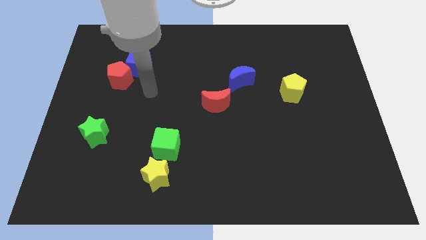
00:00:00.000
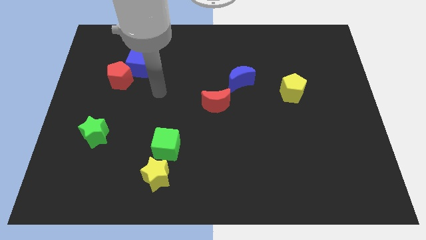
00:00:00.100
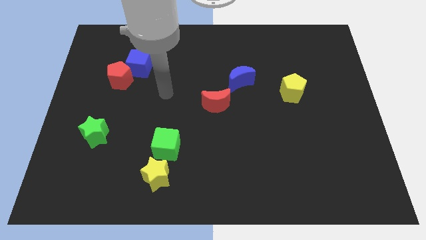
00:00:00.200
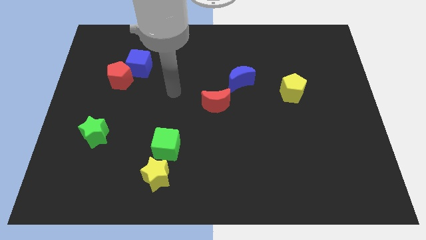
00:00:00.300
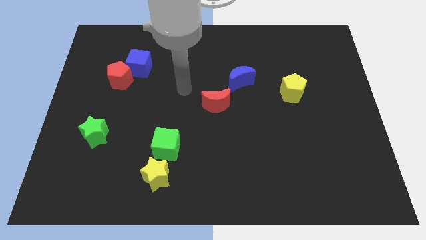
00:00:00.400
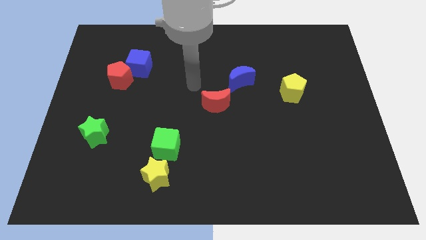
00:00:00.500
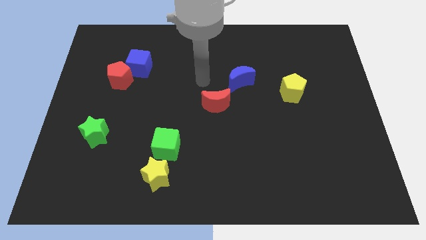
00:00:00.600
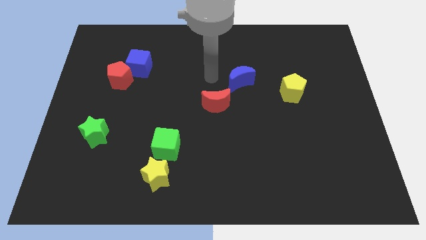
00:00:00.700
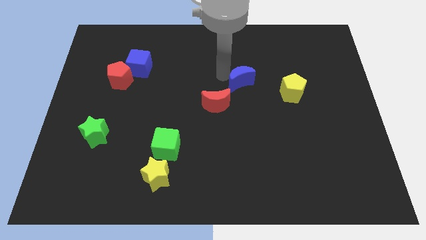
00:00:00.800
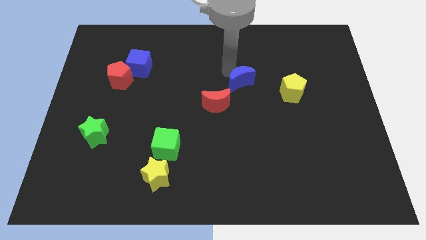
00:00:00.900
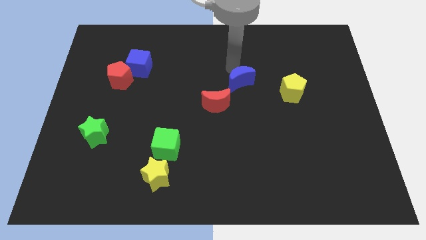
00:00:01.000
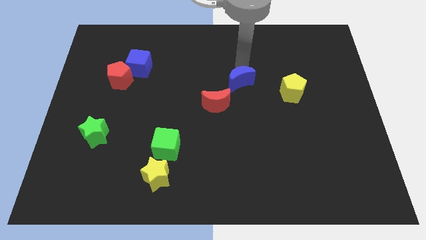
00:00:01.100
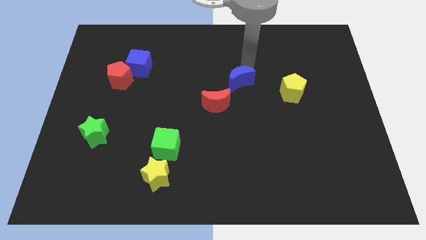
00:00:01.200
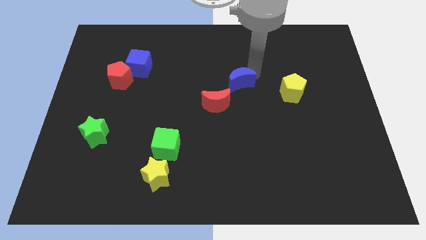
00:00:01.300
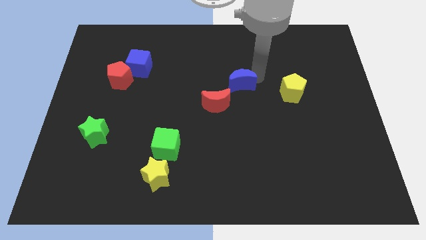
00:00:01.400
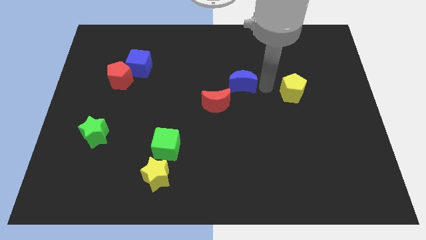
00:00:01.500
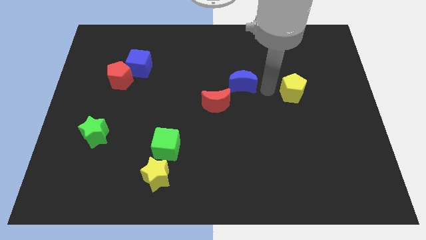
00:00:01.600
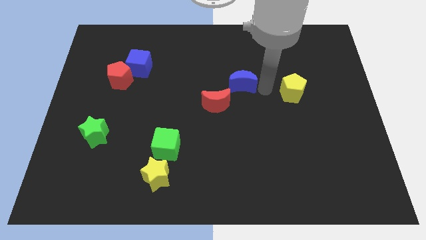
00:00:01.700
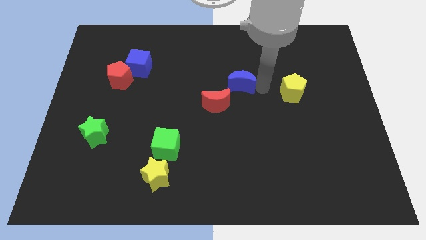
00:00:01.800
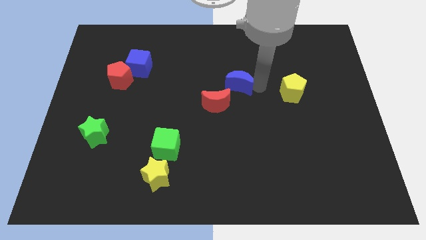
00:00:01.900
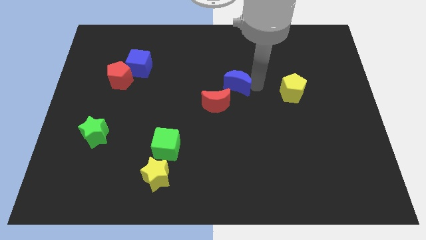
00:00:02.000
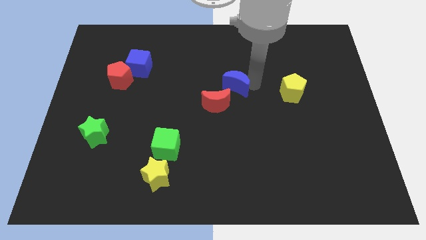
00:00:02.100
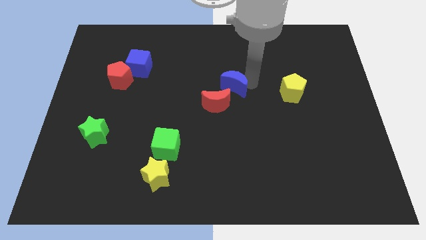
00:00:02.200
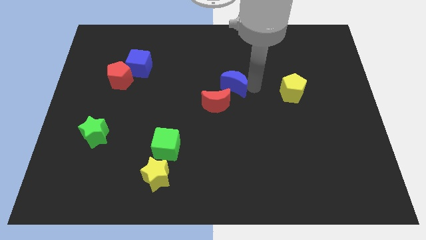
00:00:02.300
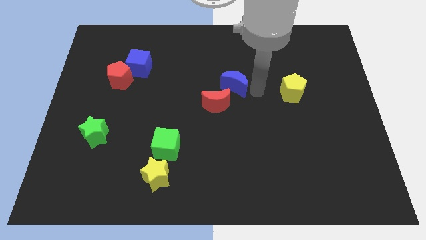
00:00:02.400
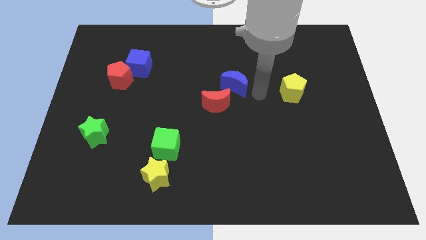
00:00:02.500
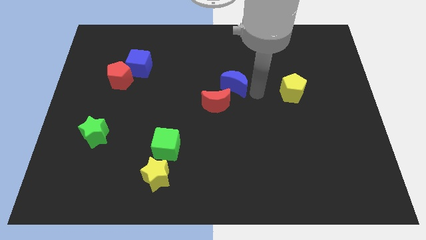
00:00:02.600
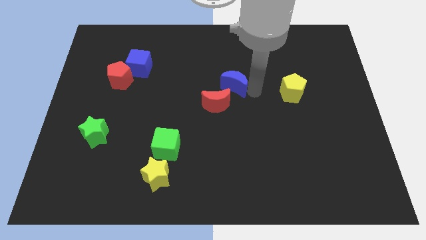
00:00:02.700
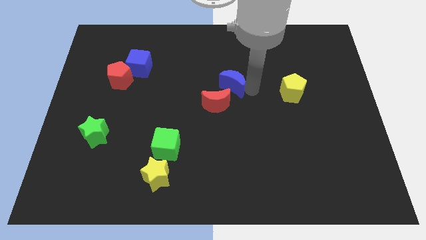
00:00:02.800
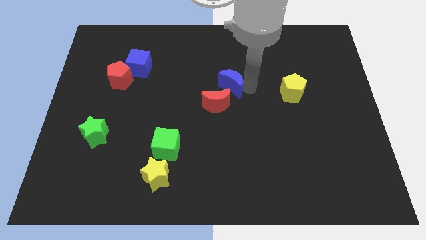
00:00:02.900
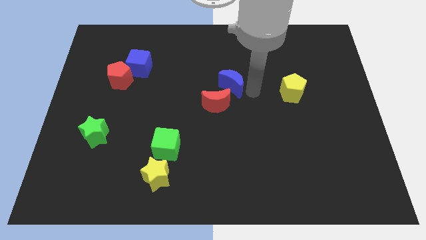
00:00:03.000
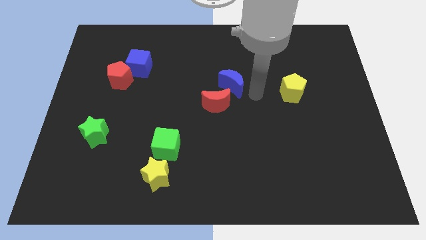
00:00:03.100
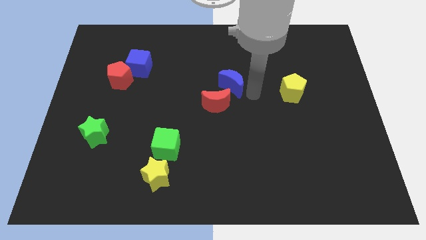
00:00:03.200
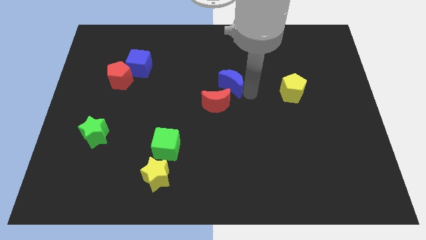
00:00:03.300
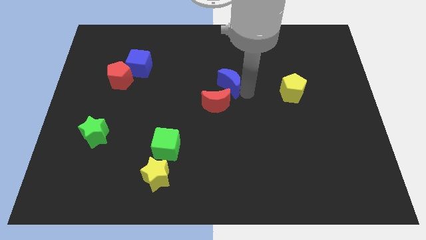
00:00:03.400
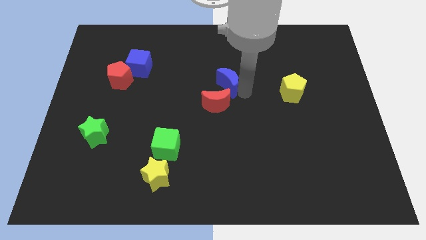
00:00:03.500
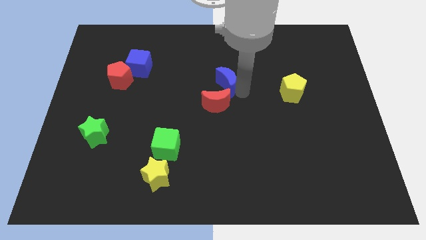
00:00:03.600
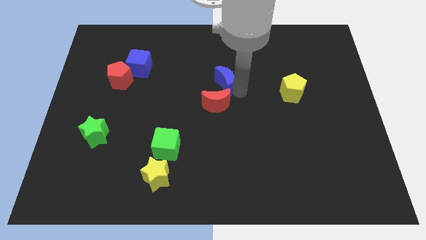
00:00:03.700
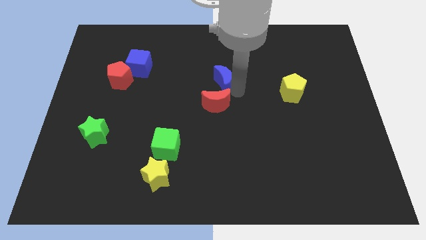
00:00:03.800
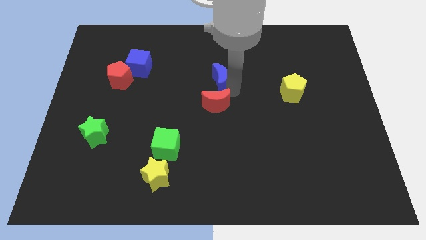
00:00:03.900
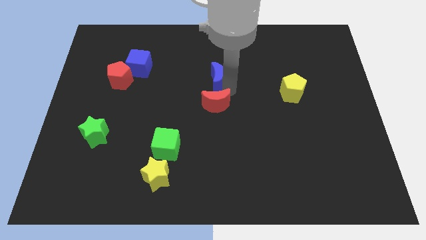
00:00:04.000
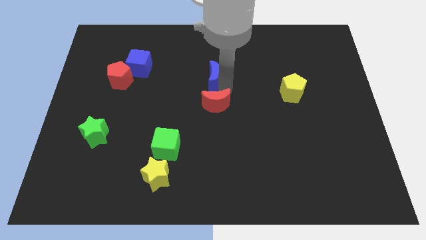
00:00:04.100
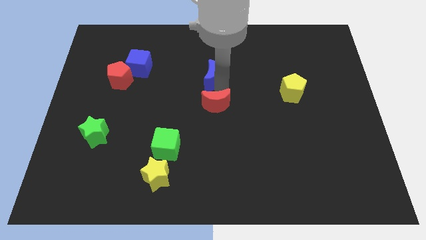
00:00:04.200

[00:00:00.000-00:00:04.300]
slightly push the blue moon to the left

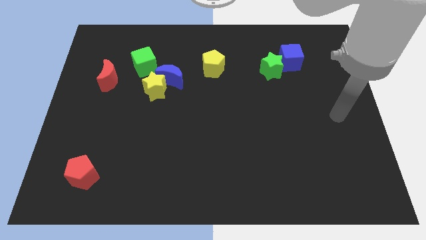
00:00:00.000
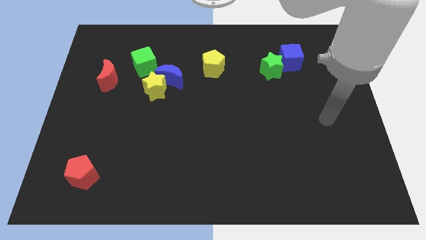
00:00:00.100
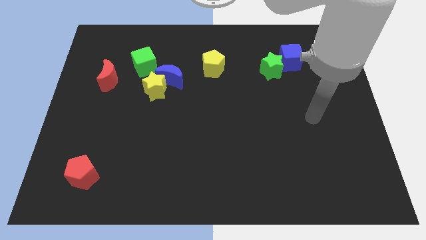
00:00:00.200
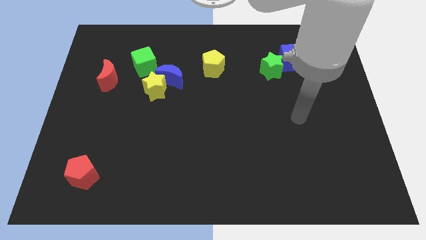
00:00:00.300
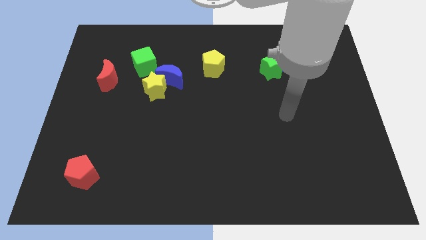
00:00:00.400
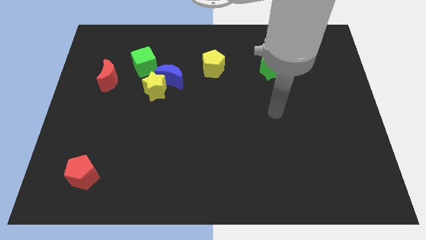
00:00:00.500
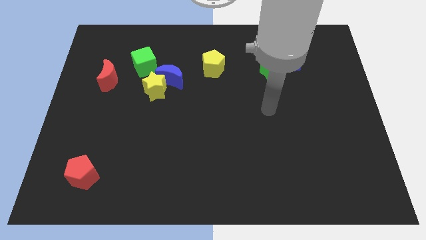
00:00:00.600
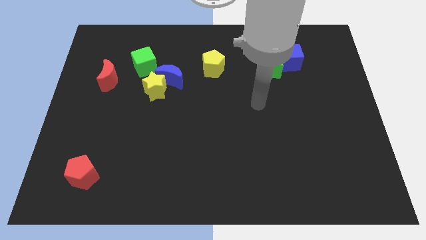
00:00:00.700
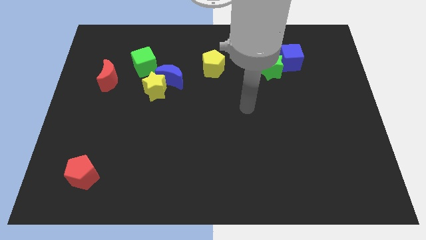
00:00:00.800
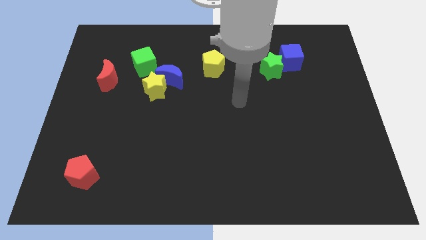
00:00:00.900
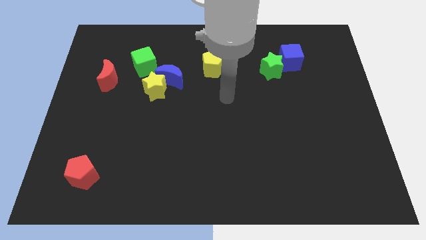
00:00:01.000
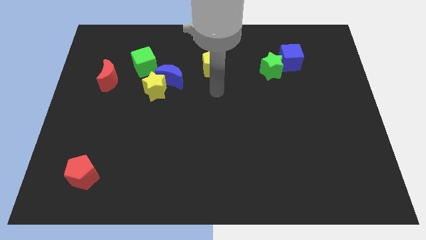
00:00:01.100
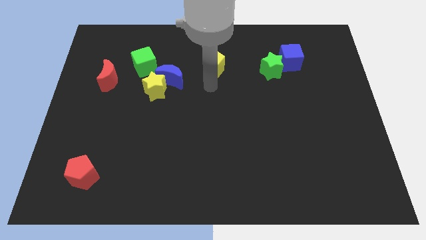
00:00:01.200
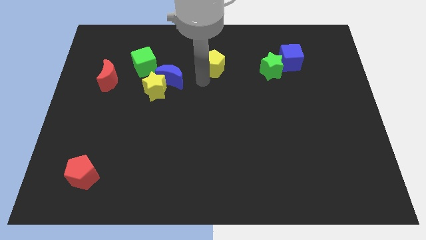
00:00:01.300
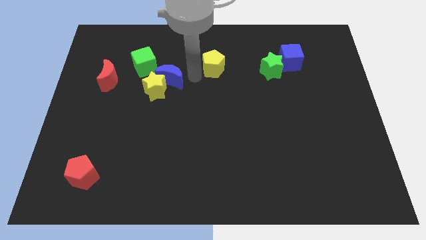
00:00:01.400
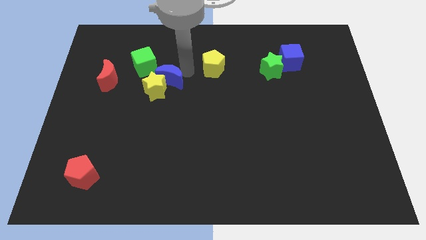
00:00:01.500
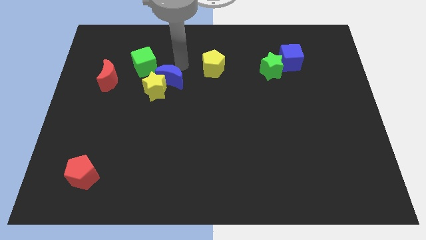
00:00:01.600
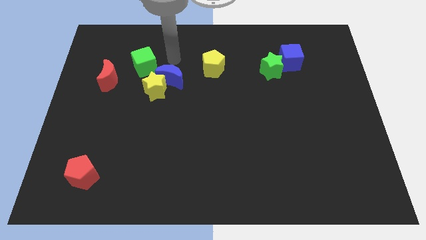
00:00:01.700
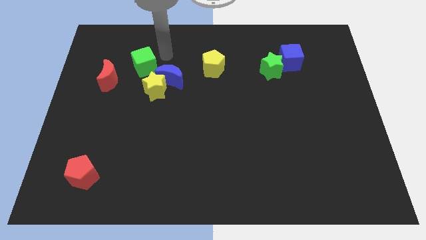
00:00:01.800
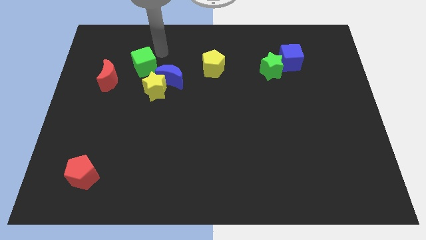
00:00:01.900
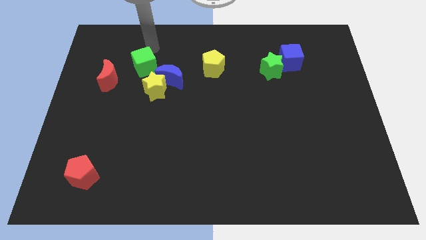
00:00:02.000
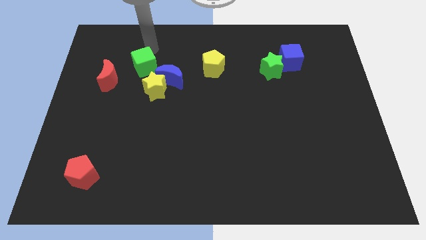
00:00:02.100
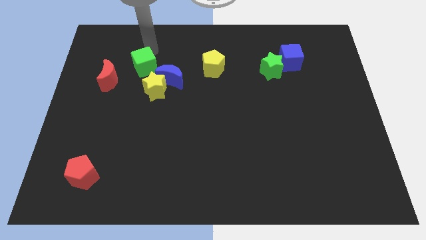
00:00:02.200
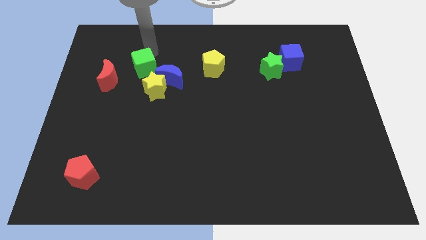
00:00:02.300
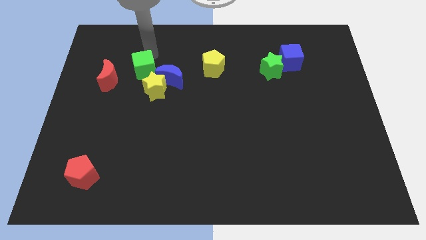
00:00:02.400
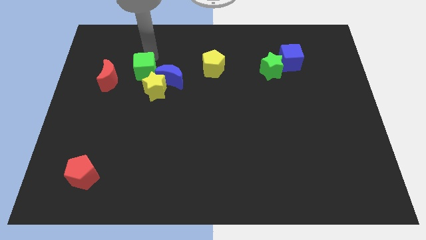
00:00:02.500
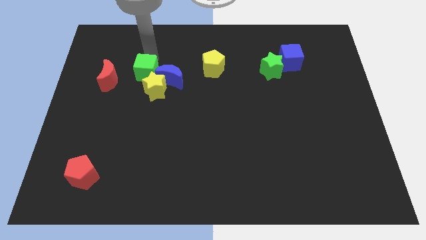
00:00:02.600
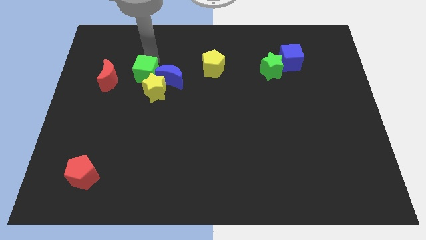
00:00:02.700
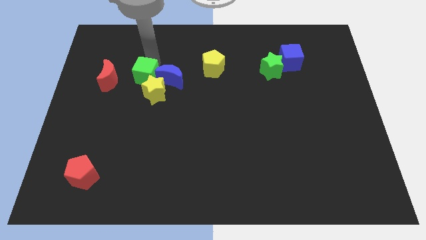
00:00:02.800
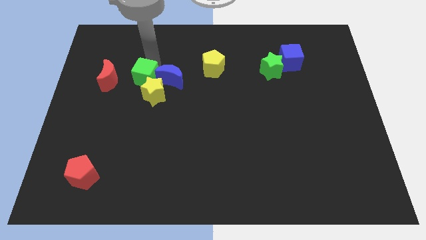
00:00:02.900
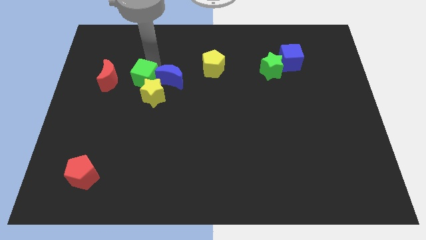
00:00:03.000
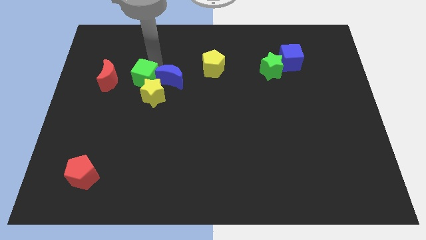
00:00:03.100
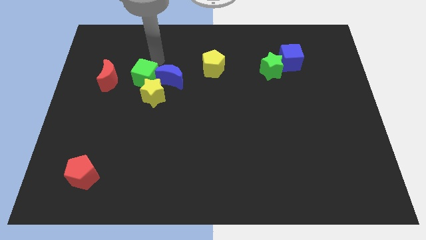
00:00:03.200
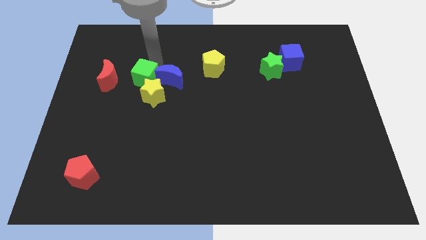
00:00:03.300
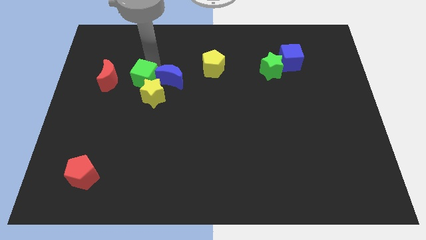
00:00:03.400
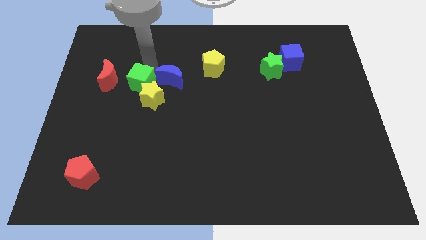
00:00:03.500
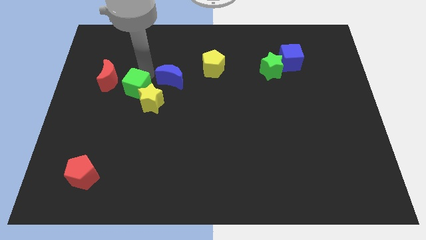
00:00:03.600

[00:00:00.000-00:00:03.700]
slightly move the green cube downwards
